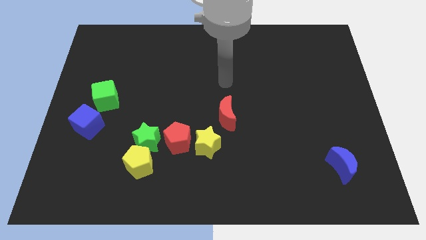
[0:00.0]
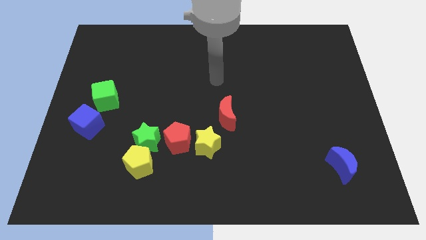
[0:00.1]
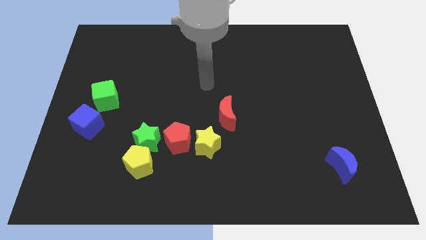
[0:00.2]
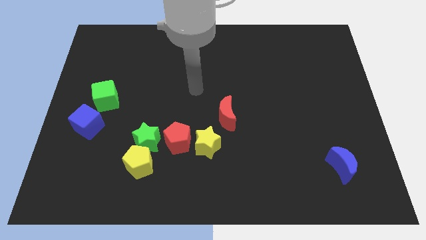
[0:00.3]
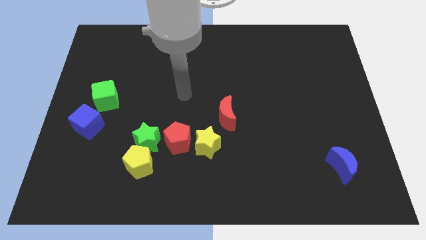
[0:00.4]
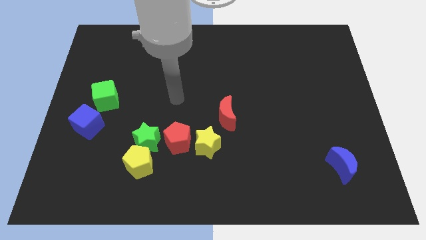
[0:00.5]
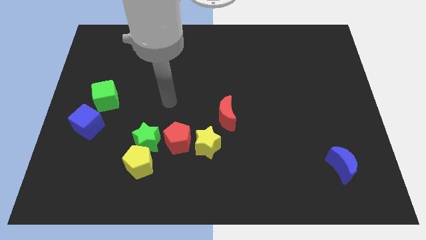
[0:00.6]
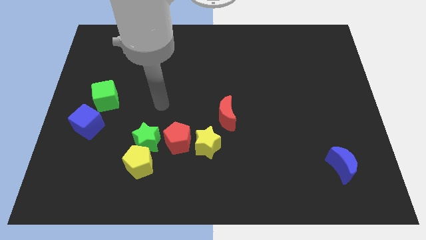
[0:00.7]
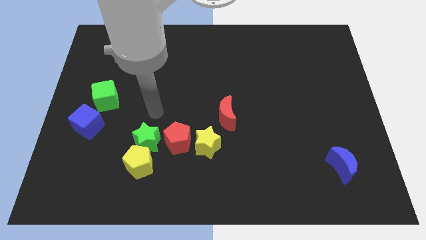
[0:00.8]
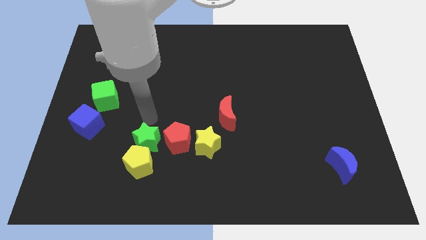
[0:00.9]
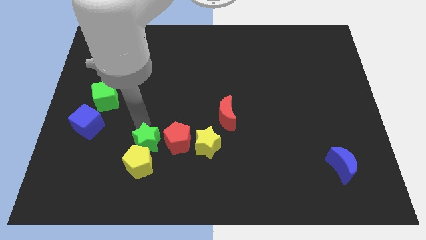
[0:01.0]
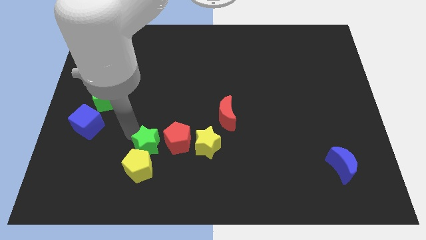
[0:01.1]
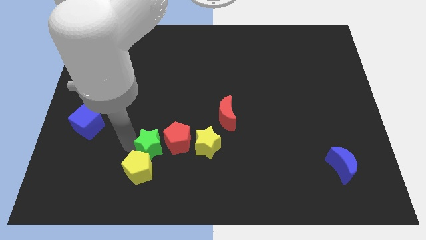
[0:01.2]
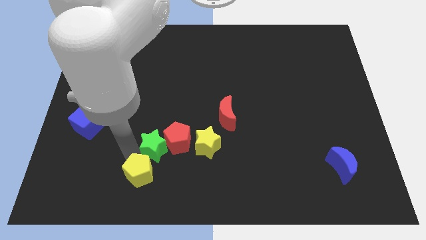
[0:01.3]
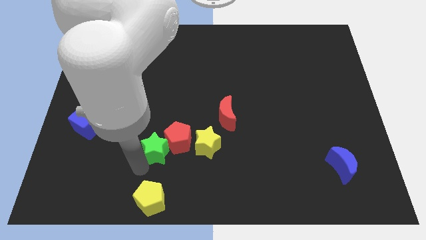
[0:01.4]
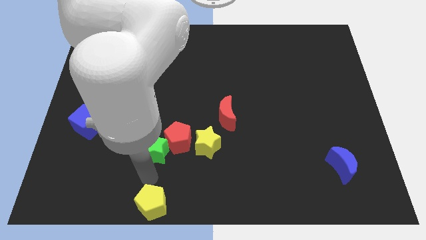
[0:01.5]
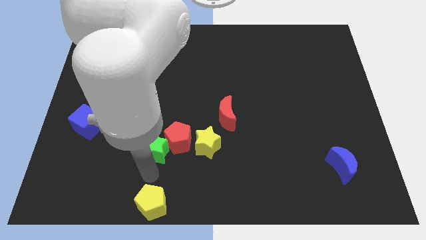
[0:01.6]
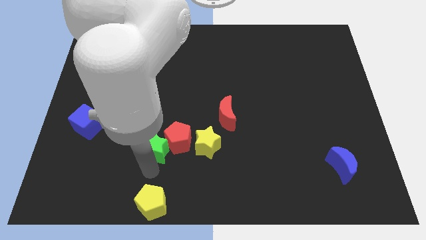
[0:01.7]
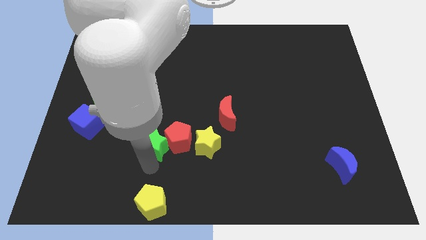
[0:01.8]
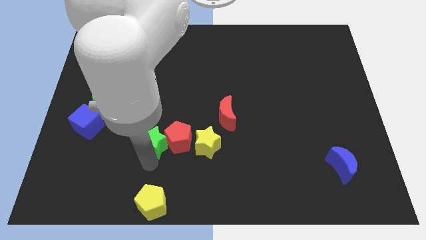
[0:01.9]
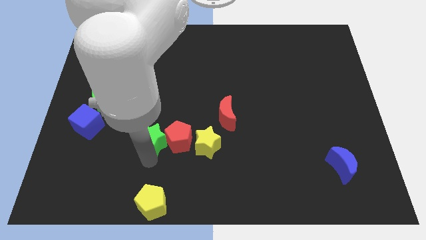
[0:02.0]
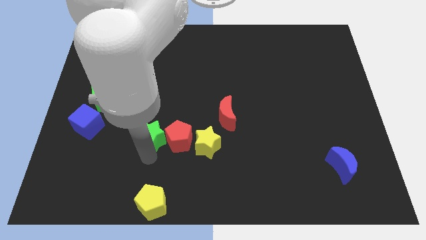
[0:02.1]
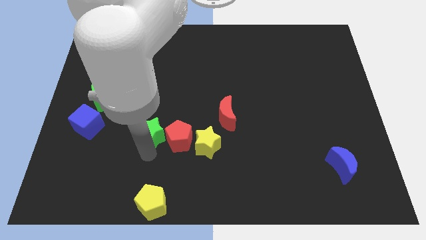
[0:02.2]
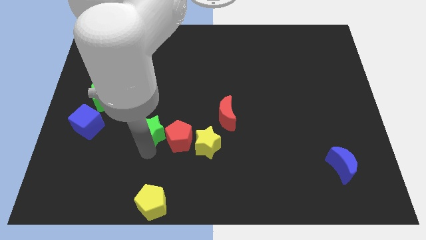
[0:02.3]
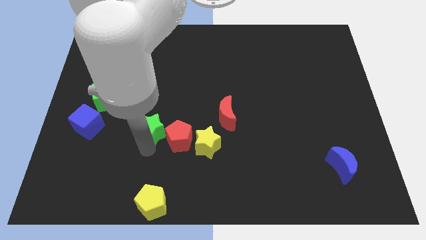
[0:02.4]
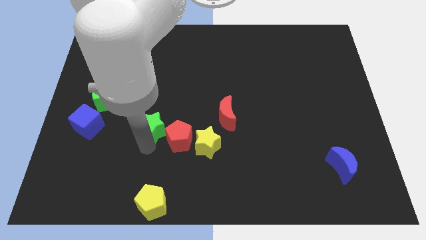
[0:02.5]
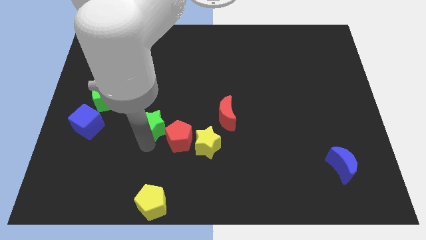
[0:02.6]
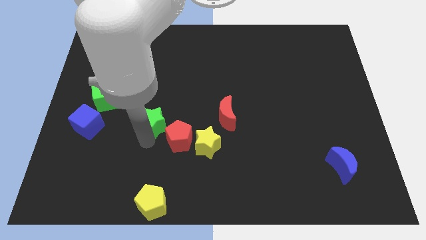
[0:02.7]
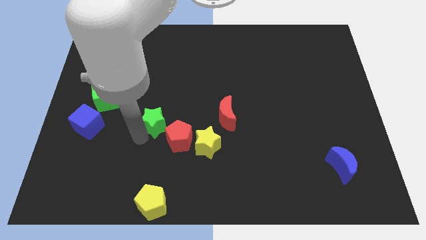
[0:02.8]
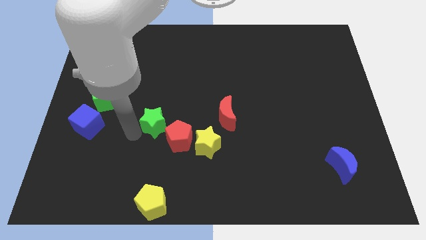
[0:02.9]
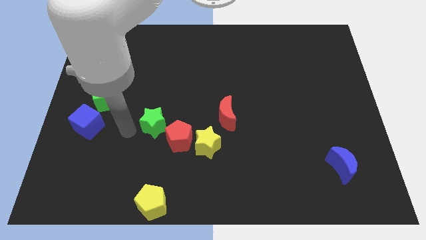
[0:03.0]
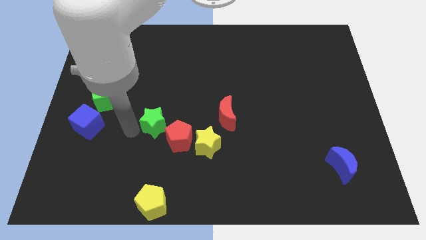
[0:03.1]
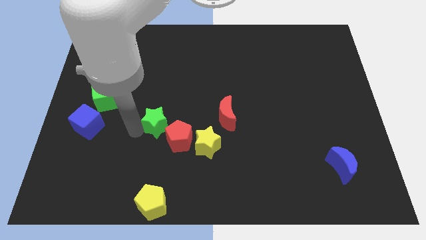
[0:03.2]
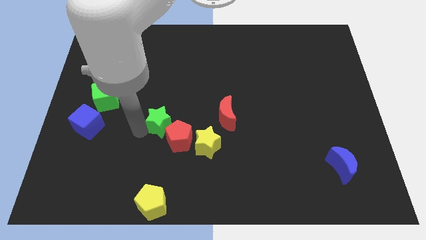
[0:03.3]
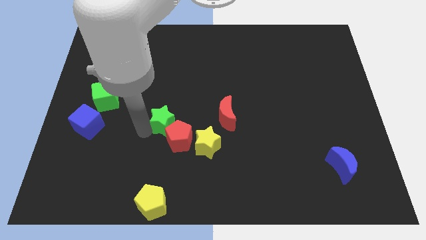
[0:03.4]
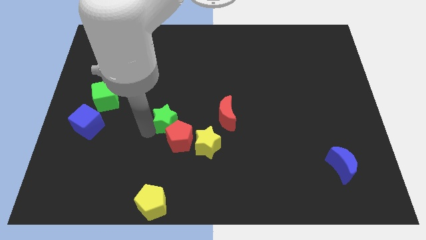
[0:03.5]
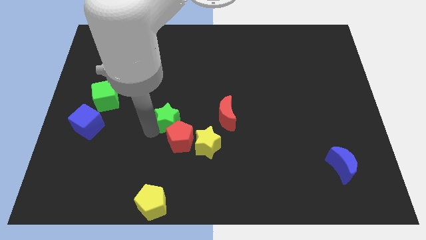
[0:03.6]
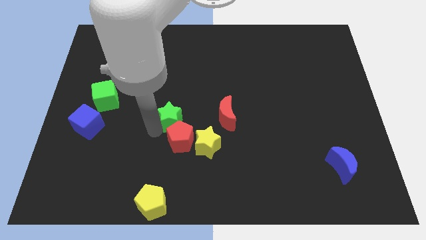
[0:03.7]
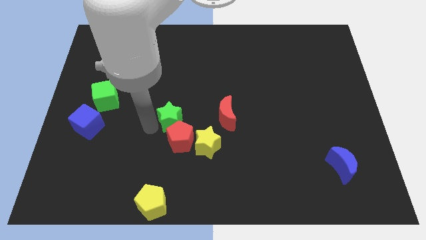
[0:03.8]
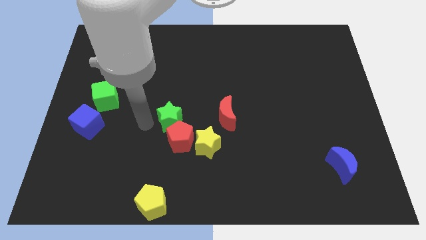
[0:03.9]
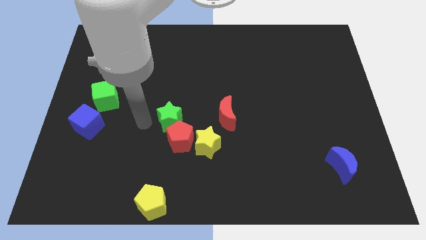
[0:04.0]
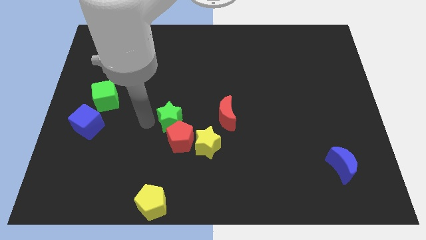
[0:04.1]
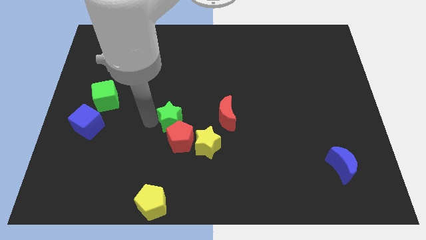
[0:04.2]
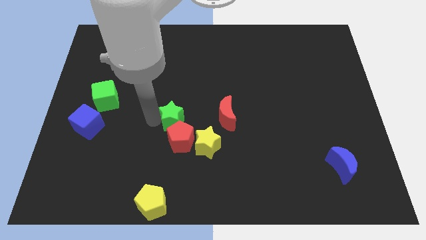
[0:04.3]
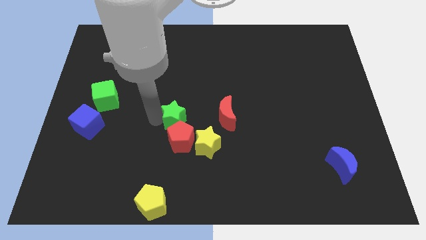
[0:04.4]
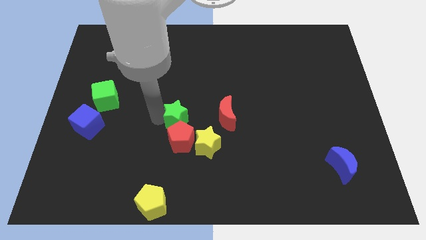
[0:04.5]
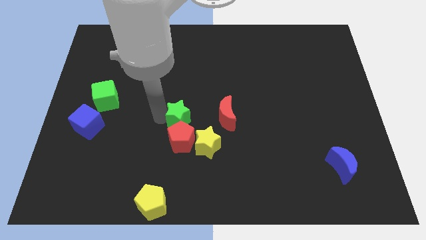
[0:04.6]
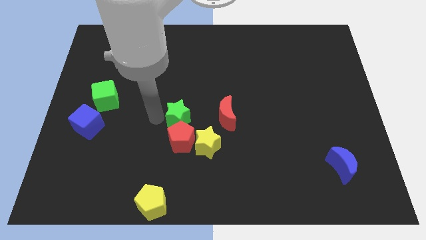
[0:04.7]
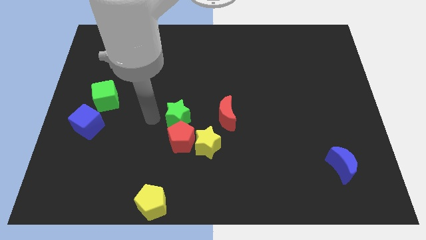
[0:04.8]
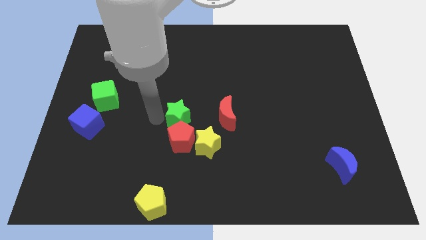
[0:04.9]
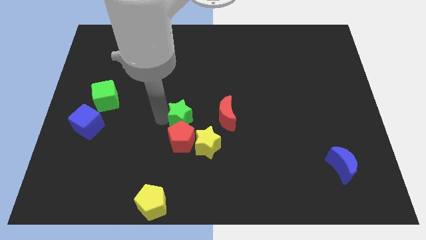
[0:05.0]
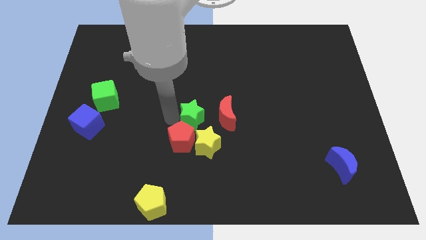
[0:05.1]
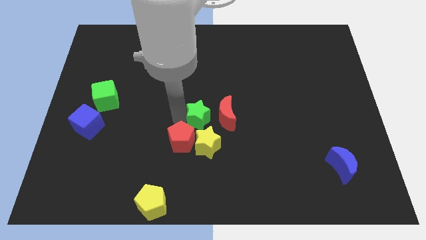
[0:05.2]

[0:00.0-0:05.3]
move the green star to the red moon

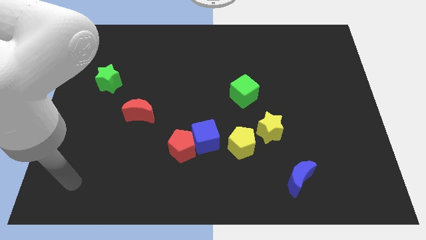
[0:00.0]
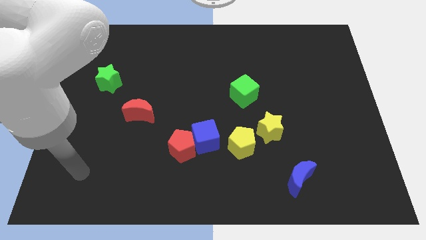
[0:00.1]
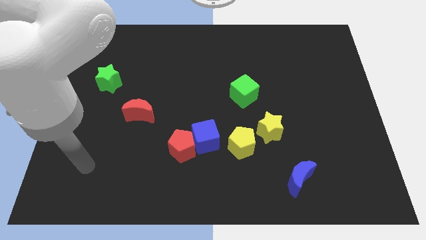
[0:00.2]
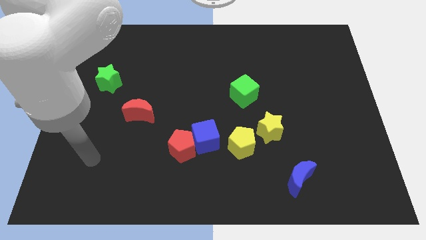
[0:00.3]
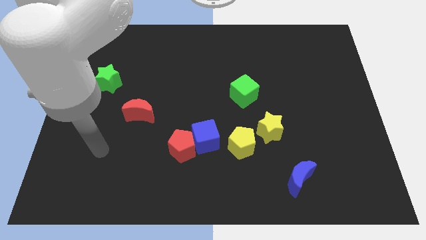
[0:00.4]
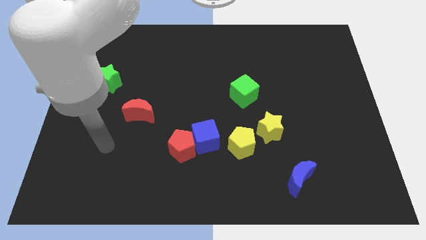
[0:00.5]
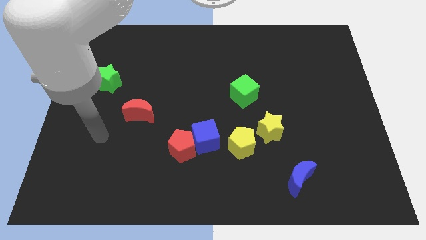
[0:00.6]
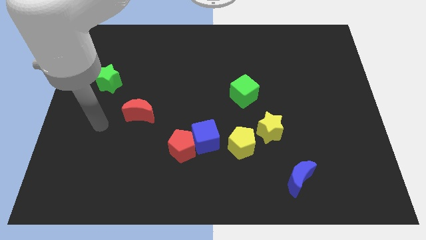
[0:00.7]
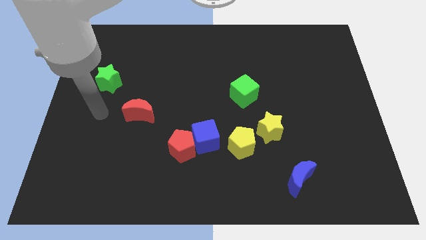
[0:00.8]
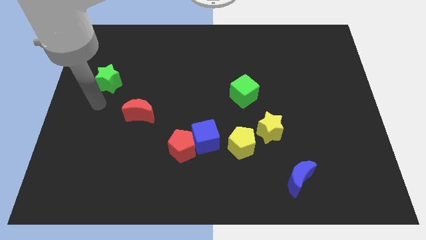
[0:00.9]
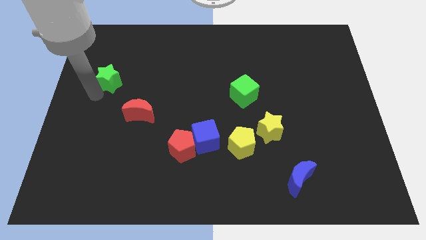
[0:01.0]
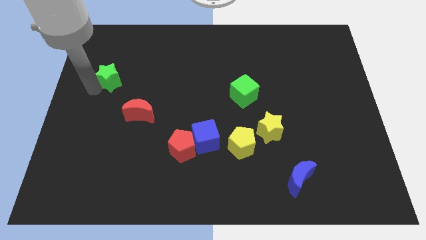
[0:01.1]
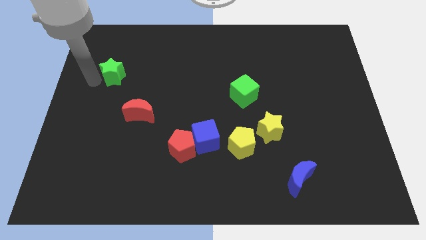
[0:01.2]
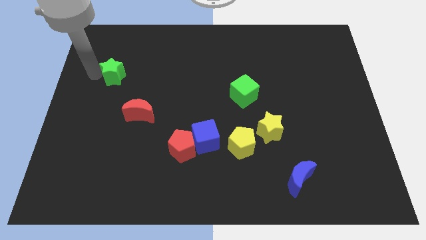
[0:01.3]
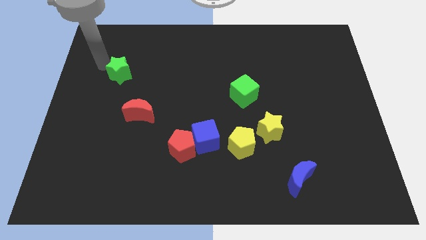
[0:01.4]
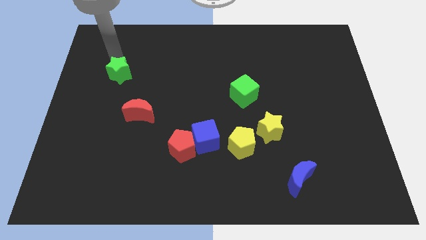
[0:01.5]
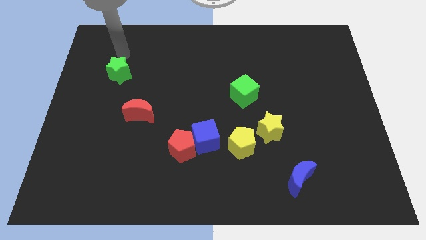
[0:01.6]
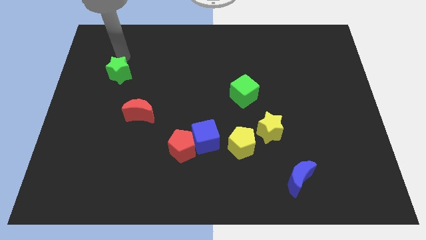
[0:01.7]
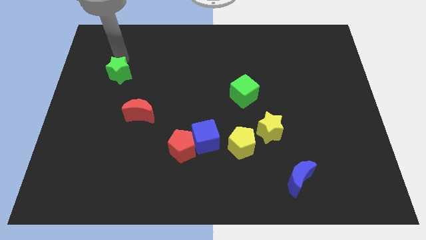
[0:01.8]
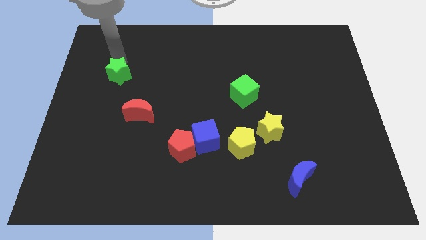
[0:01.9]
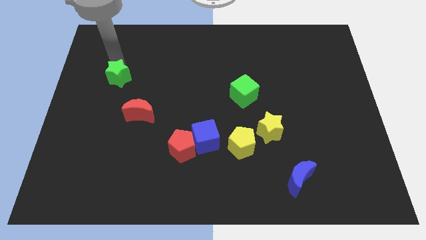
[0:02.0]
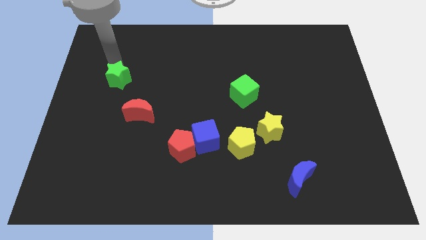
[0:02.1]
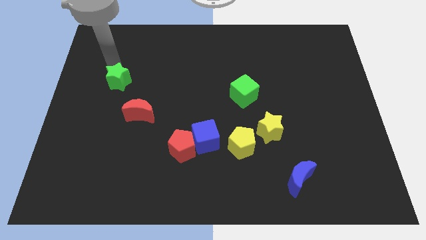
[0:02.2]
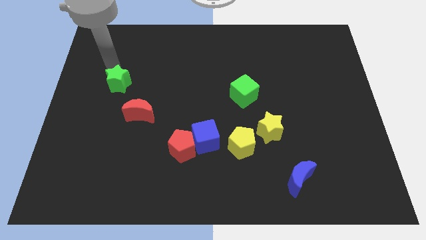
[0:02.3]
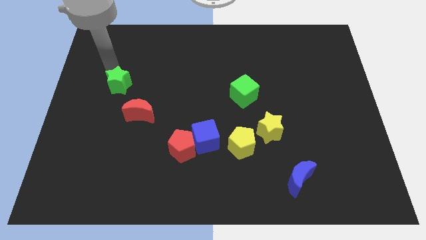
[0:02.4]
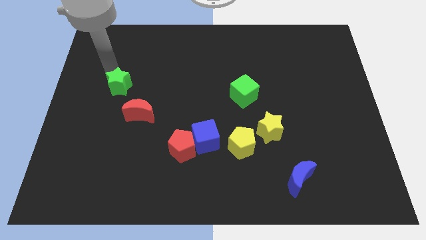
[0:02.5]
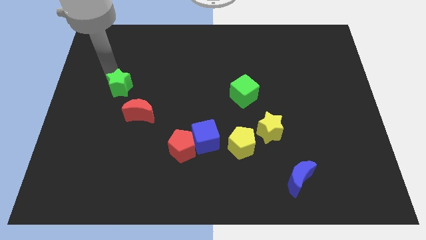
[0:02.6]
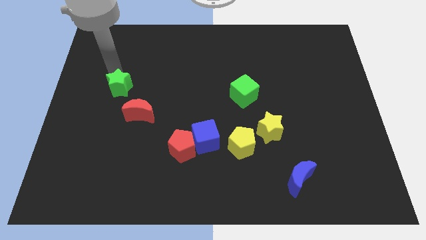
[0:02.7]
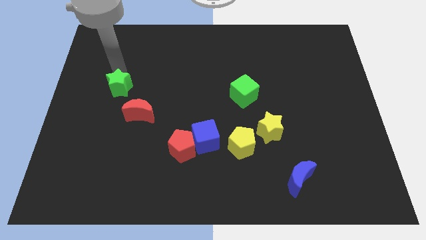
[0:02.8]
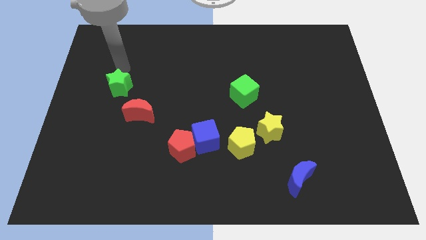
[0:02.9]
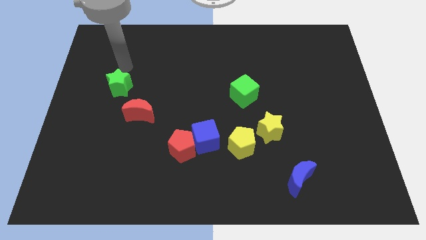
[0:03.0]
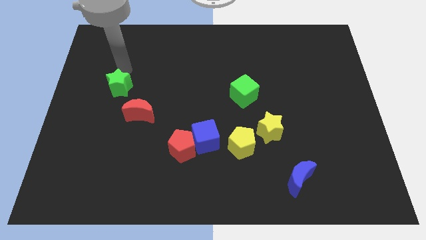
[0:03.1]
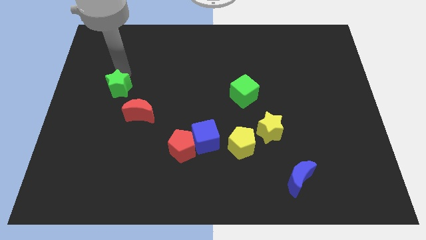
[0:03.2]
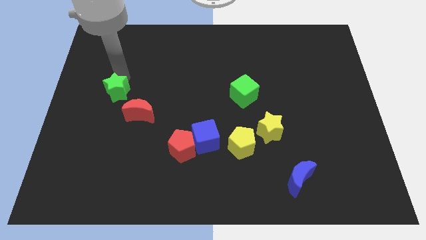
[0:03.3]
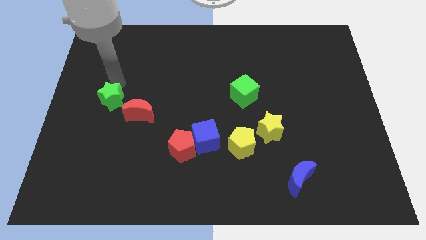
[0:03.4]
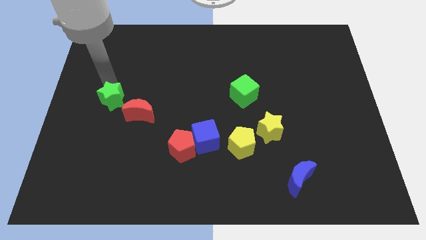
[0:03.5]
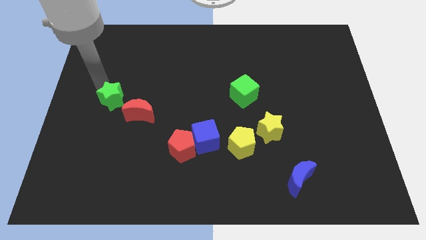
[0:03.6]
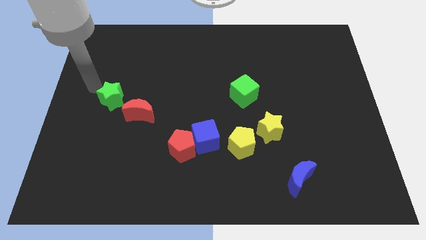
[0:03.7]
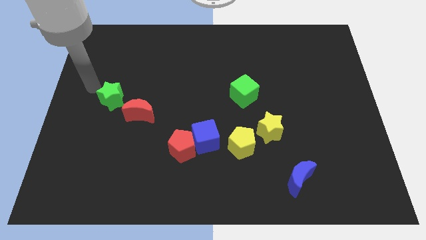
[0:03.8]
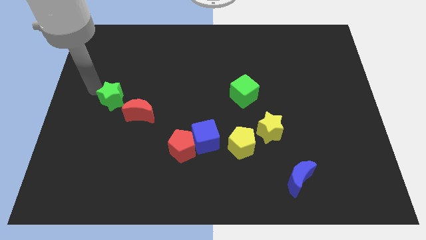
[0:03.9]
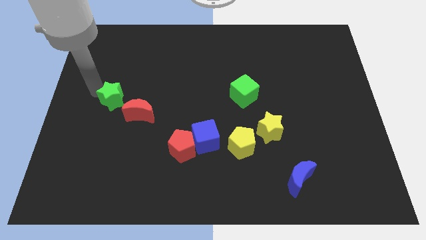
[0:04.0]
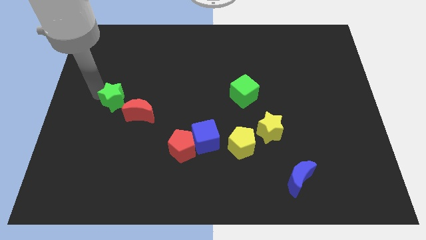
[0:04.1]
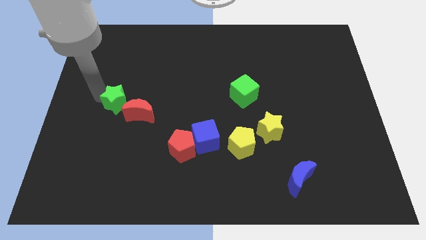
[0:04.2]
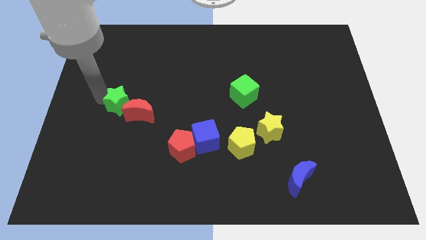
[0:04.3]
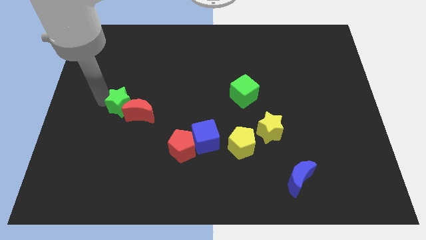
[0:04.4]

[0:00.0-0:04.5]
slide the green star close to the red moon
